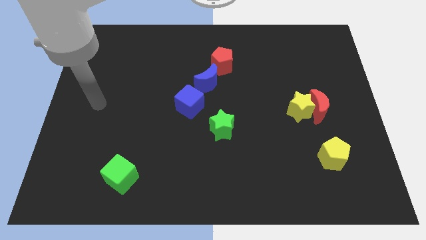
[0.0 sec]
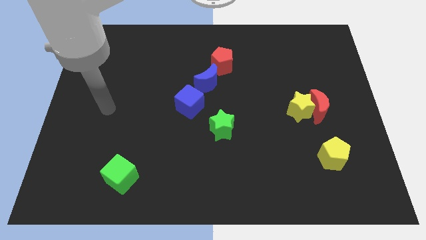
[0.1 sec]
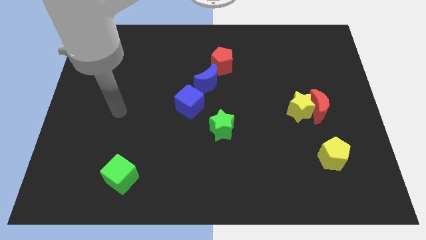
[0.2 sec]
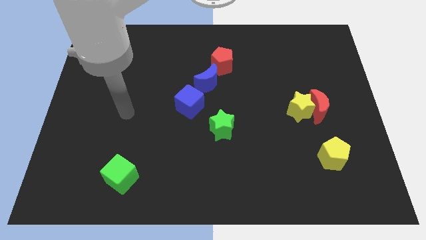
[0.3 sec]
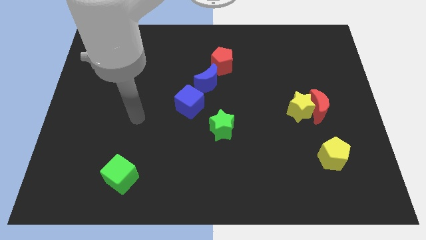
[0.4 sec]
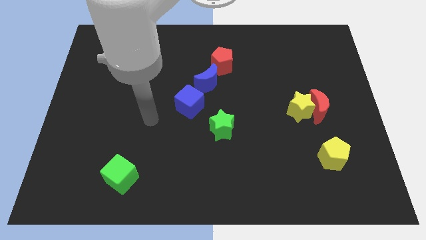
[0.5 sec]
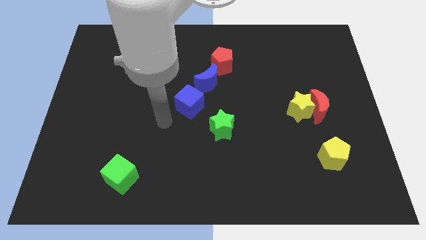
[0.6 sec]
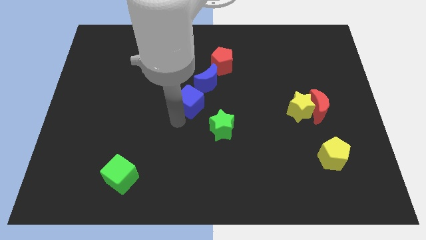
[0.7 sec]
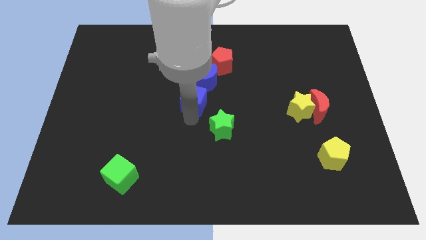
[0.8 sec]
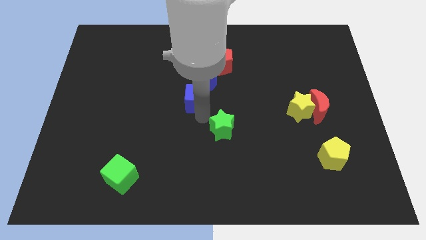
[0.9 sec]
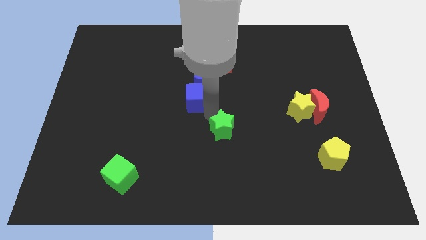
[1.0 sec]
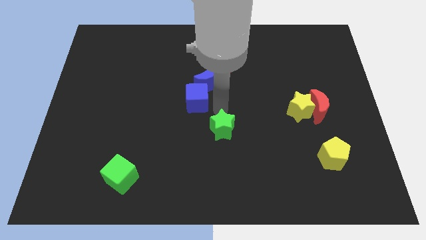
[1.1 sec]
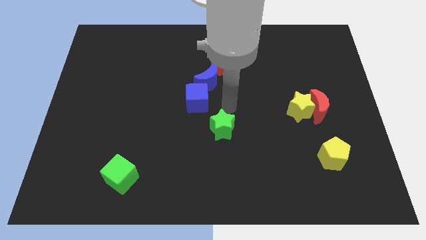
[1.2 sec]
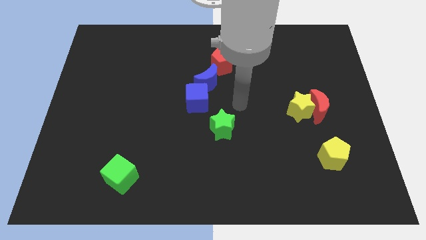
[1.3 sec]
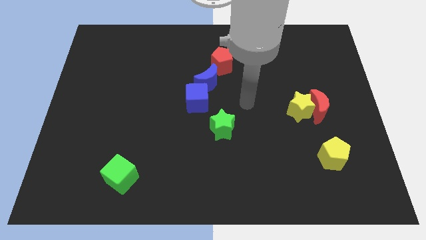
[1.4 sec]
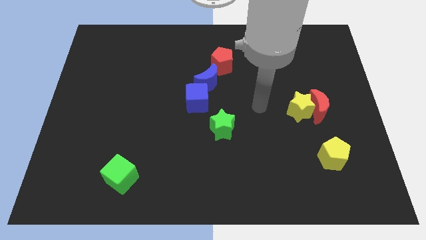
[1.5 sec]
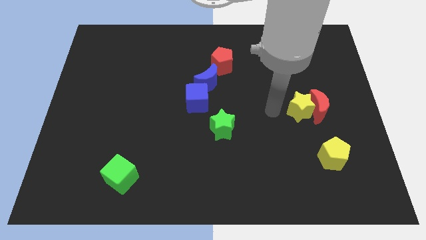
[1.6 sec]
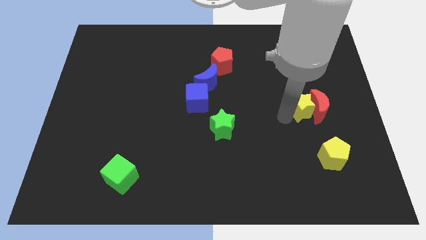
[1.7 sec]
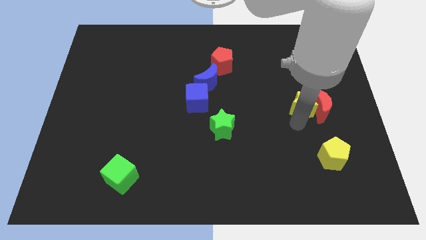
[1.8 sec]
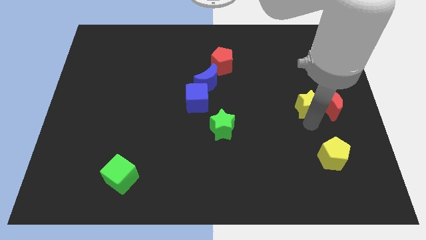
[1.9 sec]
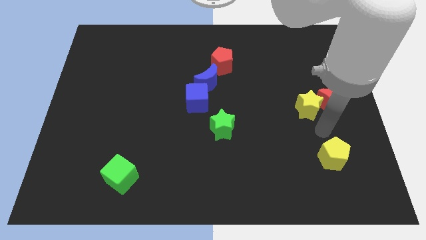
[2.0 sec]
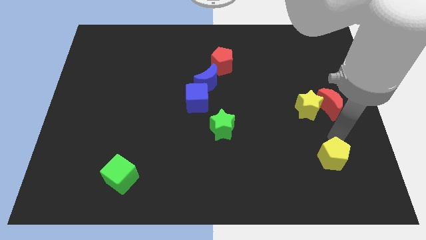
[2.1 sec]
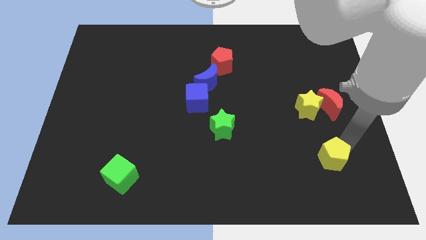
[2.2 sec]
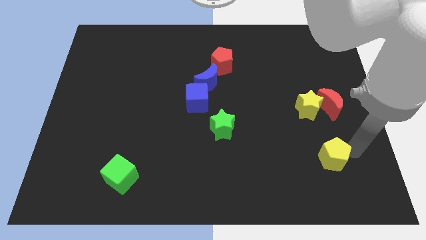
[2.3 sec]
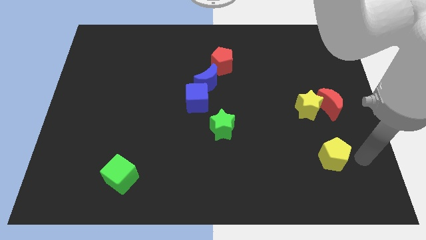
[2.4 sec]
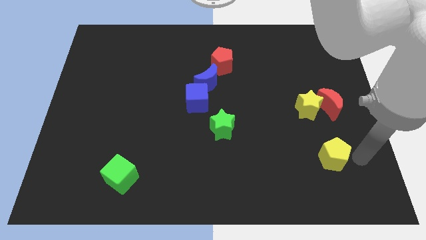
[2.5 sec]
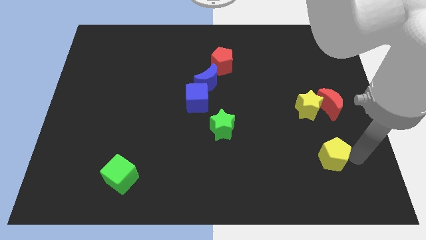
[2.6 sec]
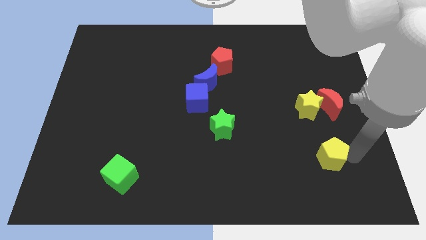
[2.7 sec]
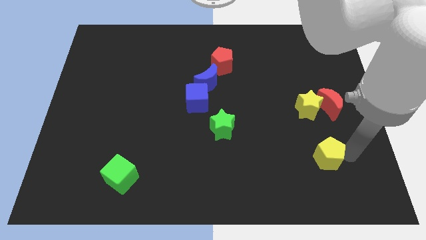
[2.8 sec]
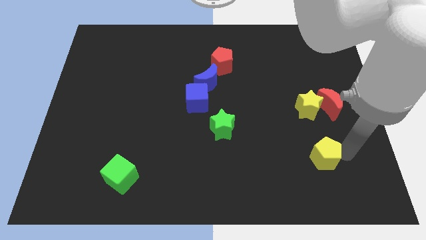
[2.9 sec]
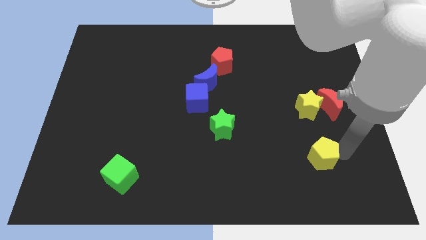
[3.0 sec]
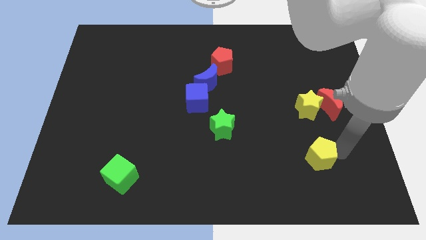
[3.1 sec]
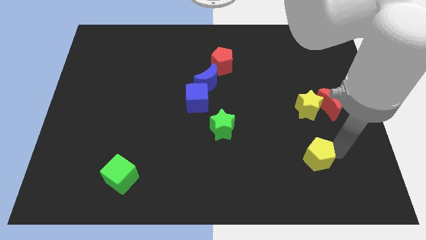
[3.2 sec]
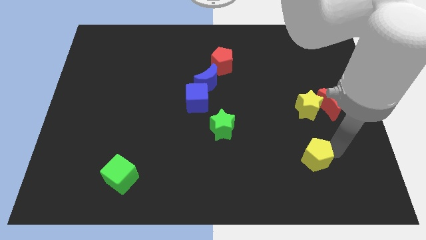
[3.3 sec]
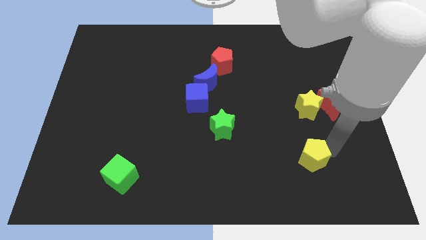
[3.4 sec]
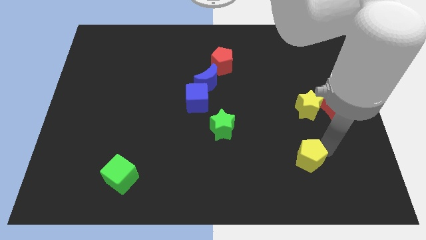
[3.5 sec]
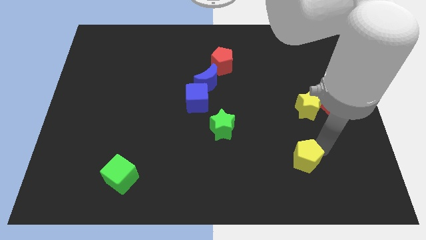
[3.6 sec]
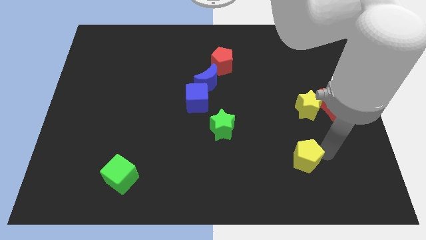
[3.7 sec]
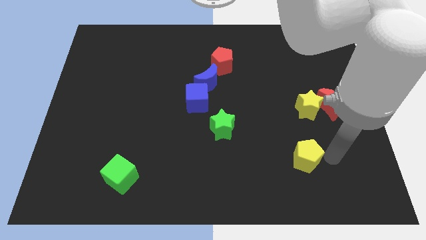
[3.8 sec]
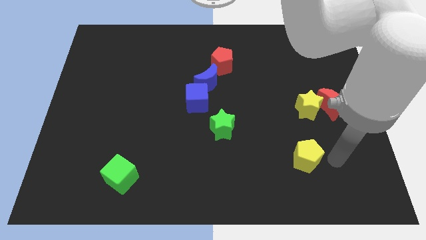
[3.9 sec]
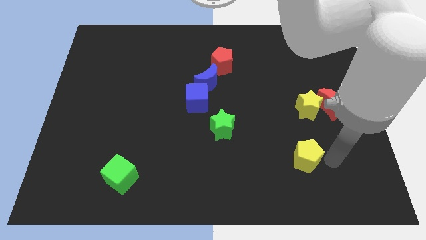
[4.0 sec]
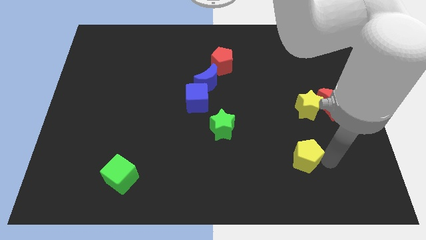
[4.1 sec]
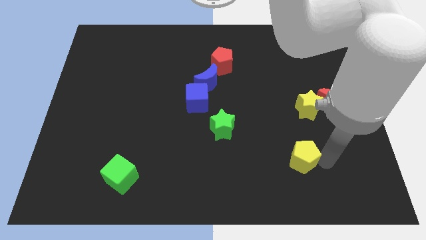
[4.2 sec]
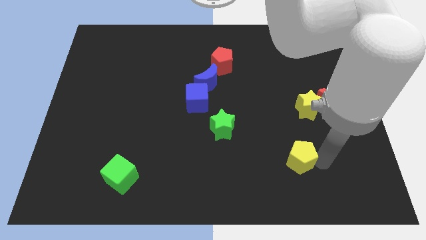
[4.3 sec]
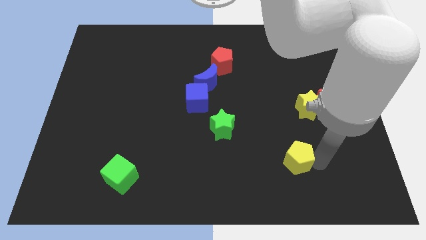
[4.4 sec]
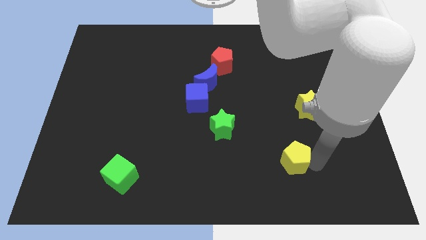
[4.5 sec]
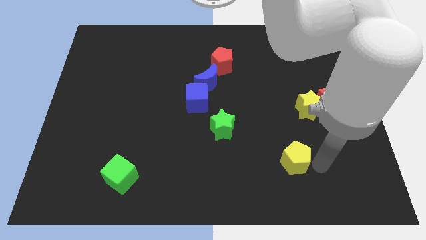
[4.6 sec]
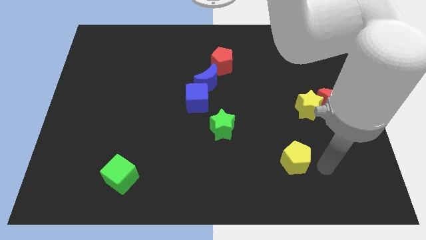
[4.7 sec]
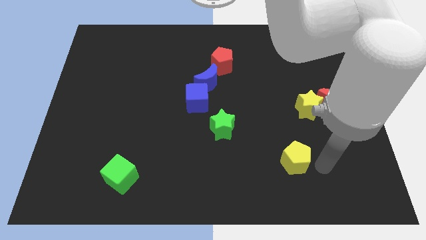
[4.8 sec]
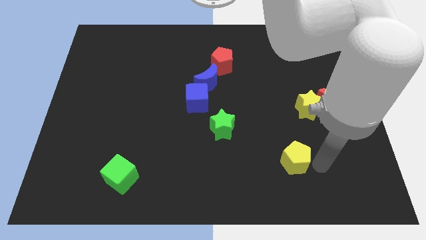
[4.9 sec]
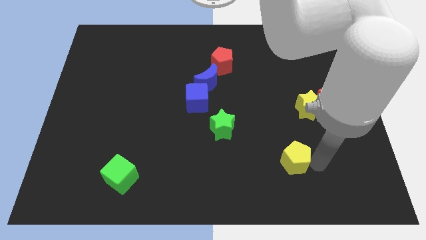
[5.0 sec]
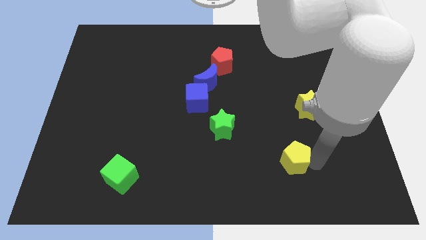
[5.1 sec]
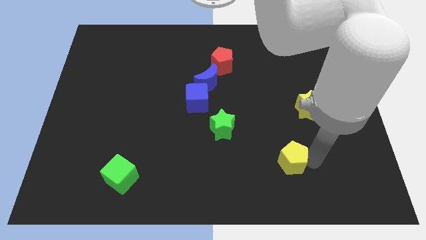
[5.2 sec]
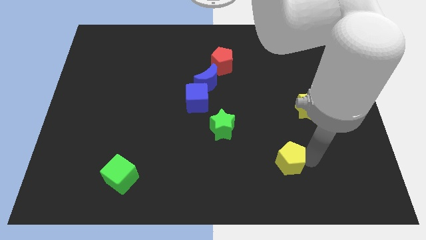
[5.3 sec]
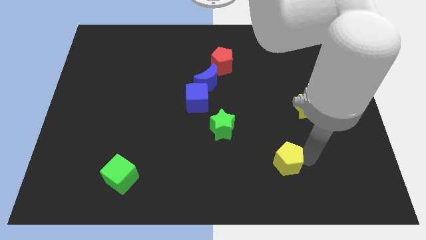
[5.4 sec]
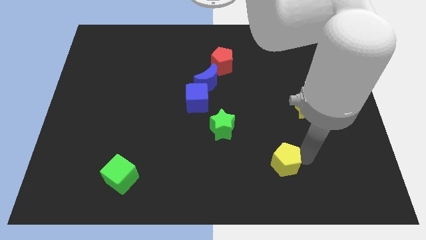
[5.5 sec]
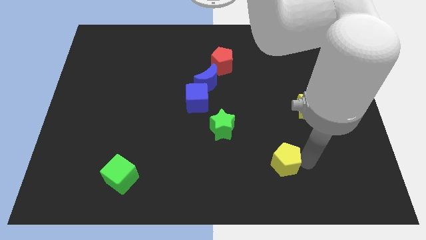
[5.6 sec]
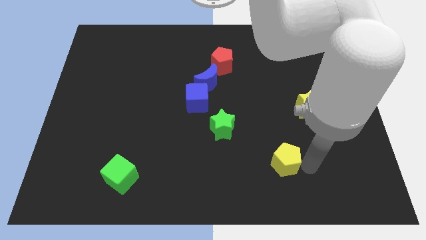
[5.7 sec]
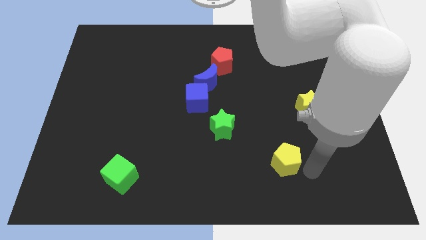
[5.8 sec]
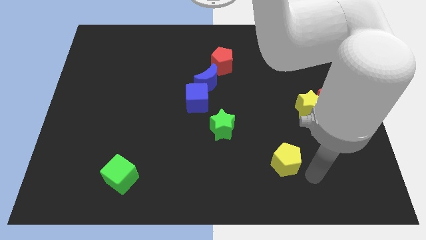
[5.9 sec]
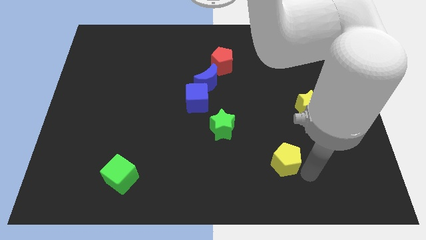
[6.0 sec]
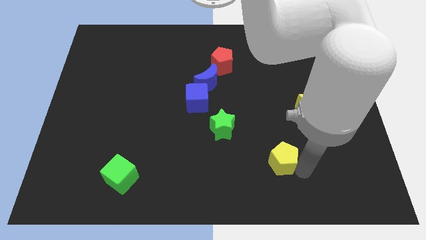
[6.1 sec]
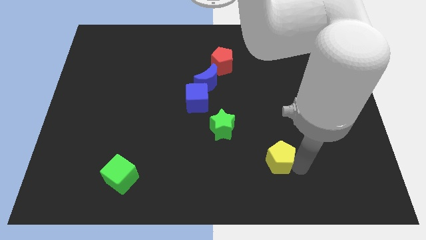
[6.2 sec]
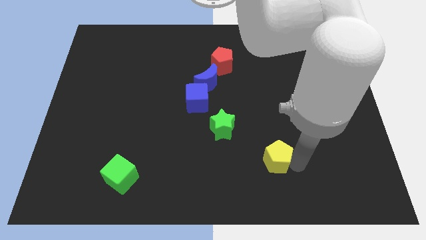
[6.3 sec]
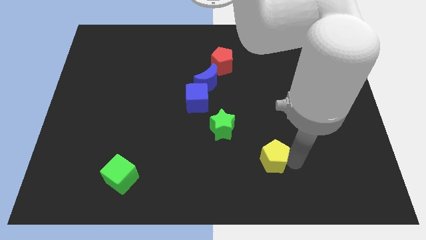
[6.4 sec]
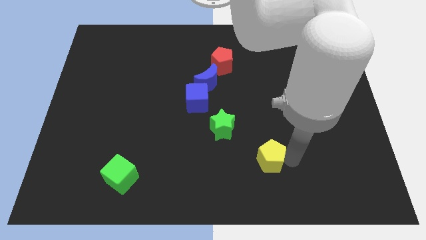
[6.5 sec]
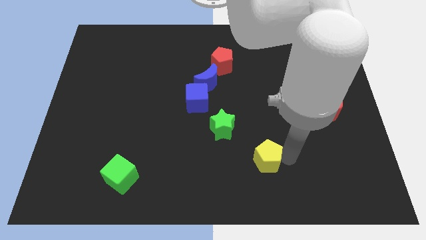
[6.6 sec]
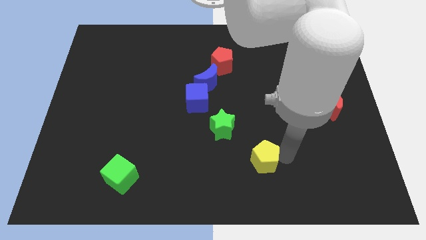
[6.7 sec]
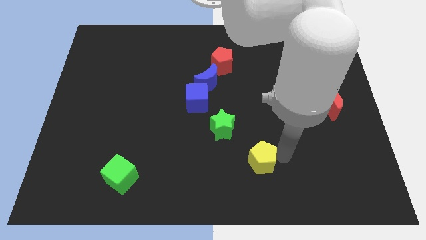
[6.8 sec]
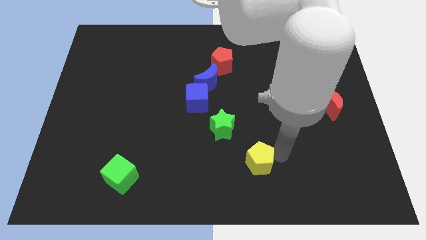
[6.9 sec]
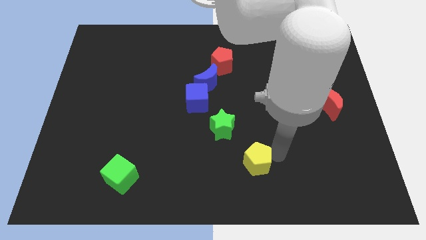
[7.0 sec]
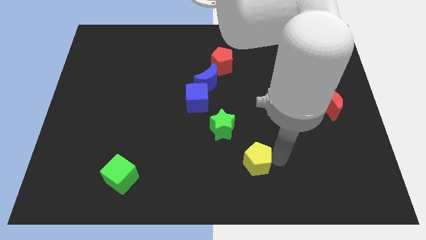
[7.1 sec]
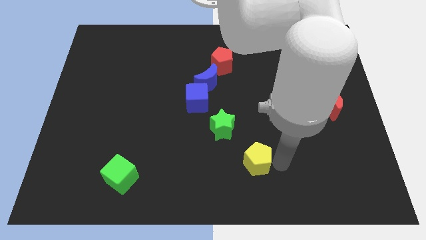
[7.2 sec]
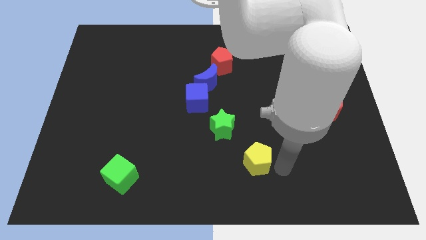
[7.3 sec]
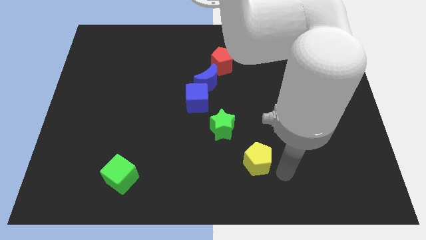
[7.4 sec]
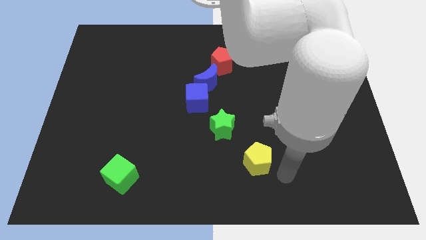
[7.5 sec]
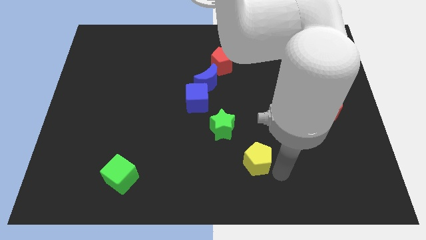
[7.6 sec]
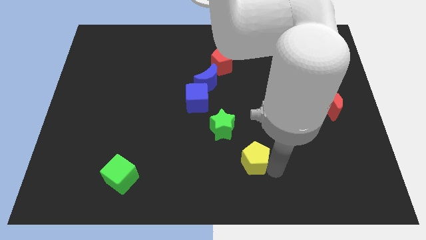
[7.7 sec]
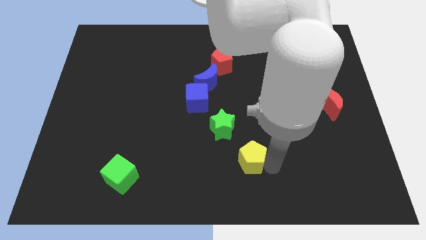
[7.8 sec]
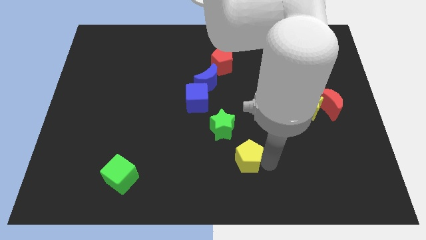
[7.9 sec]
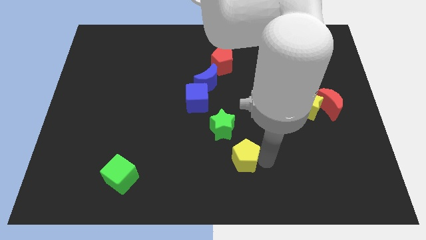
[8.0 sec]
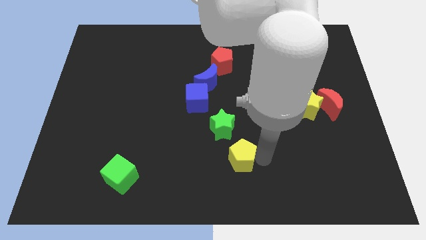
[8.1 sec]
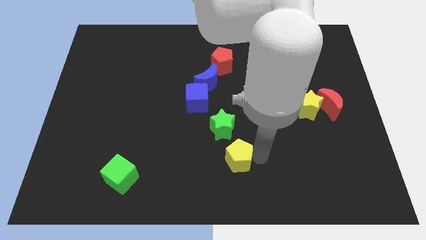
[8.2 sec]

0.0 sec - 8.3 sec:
push the yellow pentagon left
